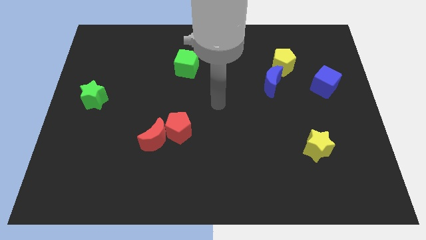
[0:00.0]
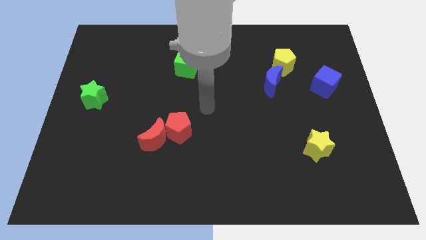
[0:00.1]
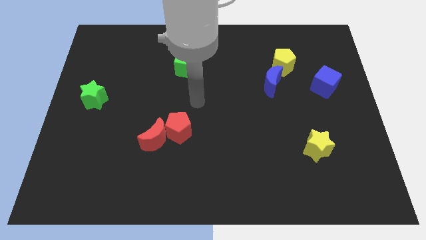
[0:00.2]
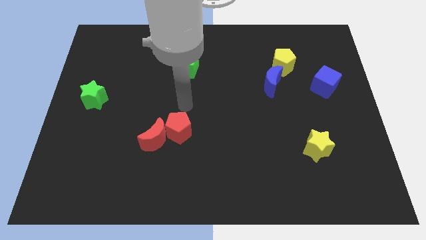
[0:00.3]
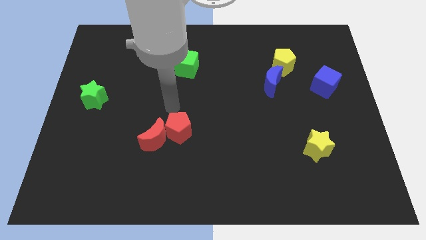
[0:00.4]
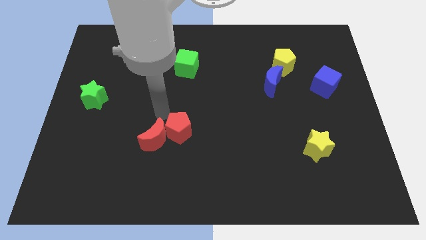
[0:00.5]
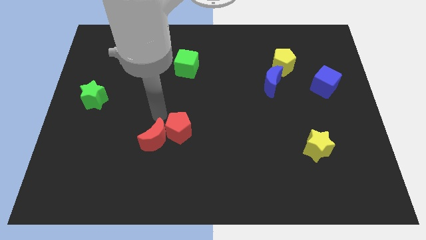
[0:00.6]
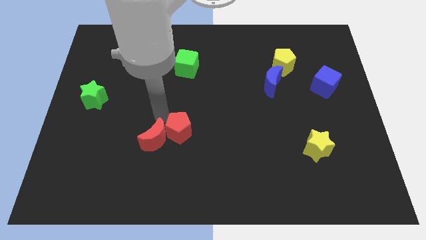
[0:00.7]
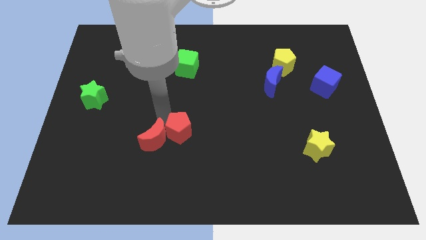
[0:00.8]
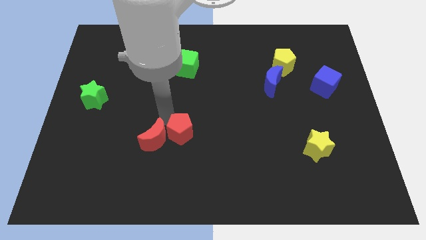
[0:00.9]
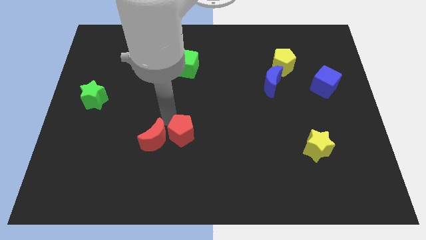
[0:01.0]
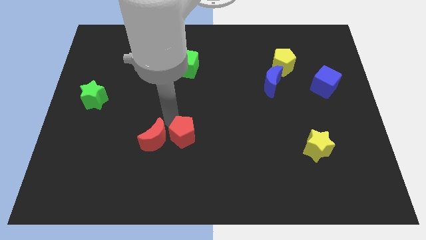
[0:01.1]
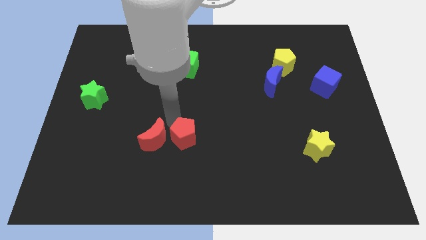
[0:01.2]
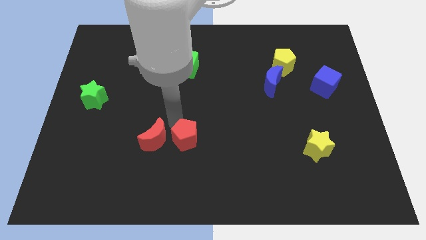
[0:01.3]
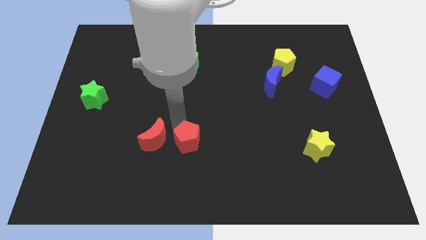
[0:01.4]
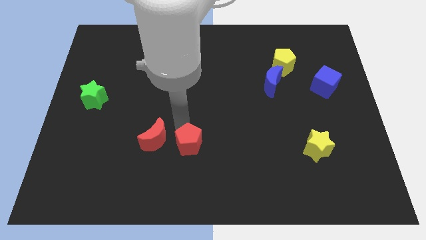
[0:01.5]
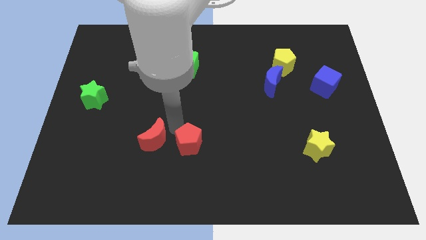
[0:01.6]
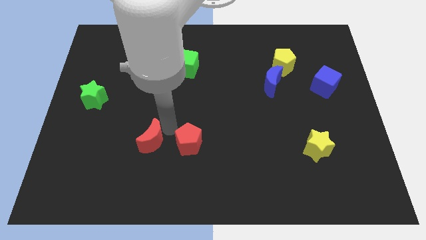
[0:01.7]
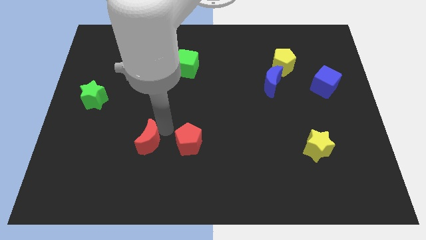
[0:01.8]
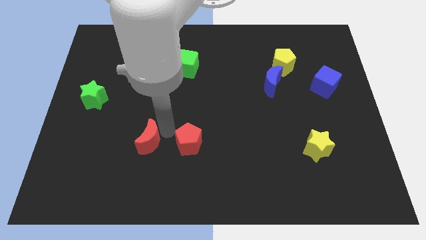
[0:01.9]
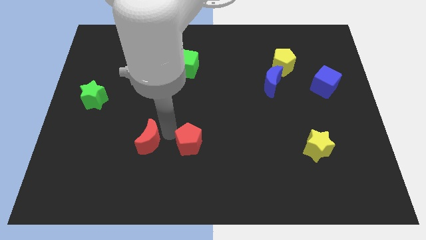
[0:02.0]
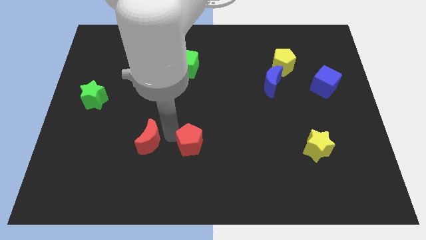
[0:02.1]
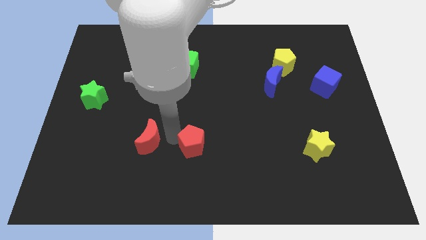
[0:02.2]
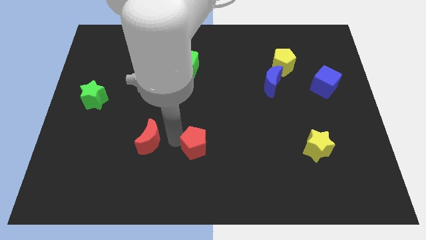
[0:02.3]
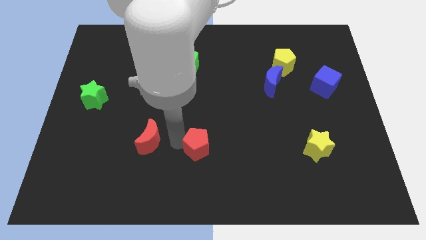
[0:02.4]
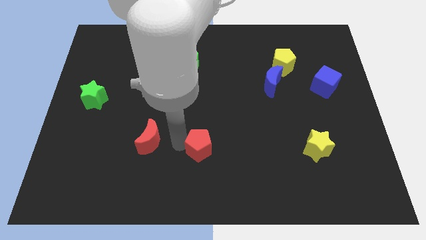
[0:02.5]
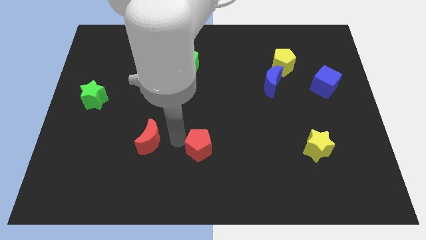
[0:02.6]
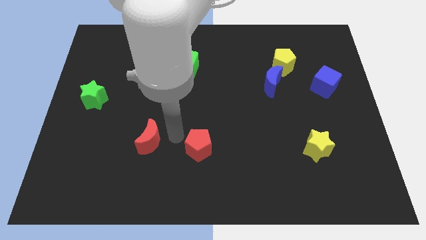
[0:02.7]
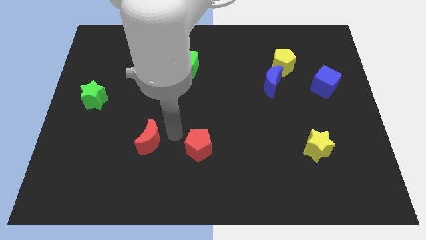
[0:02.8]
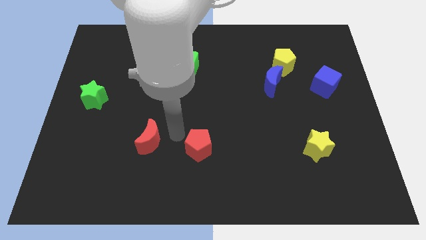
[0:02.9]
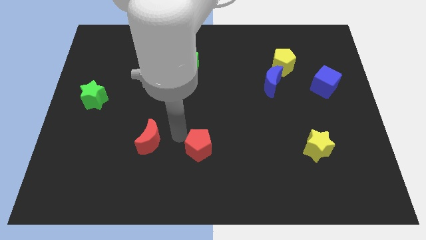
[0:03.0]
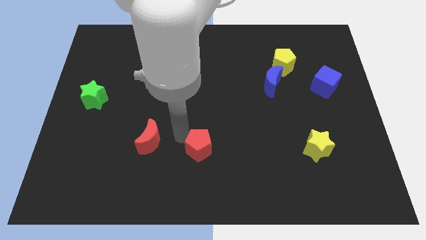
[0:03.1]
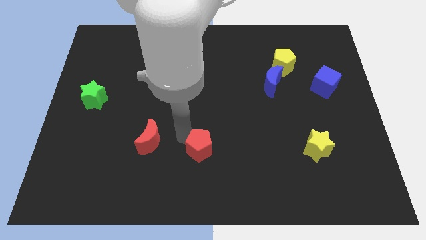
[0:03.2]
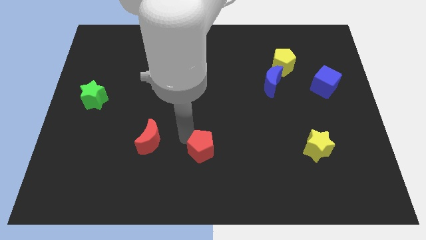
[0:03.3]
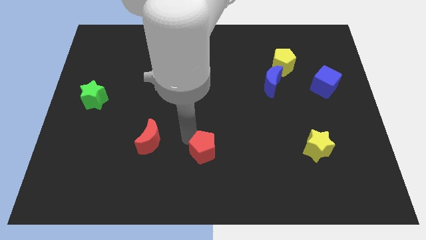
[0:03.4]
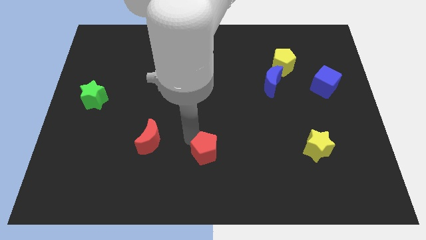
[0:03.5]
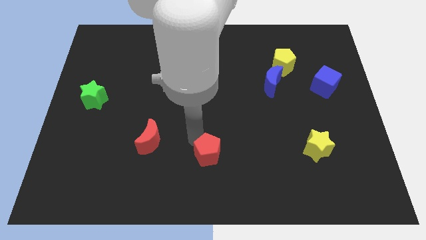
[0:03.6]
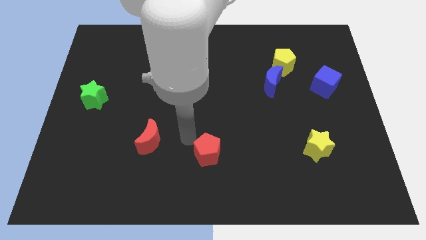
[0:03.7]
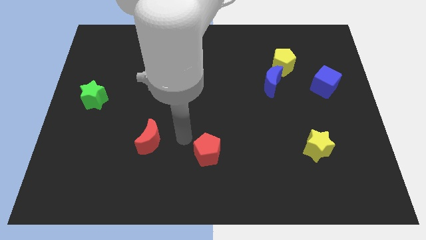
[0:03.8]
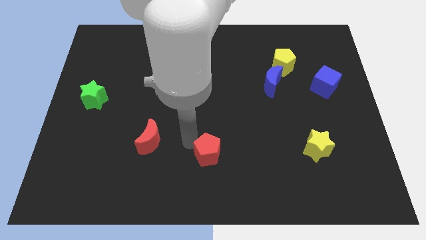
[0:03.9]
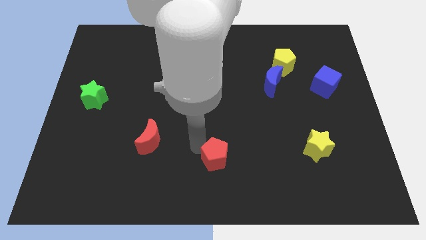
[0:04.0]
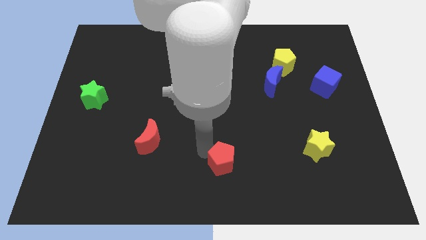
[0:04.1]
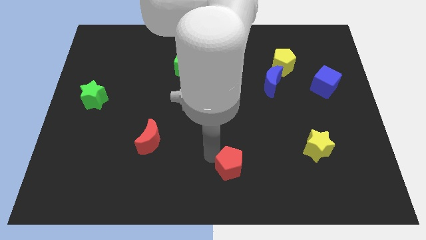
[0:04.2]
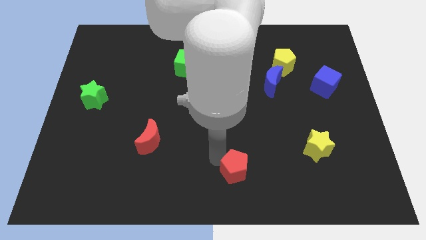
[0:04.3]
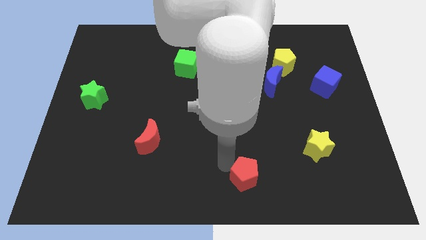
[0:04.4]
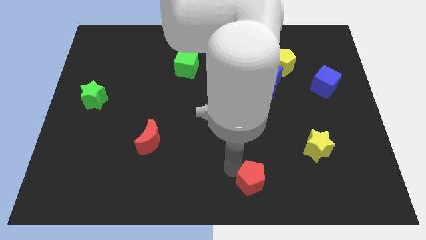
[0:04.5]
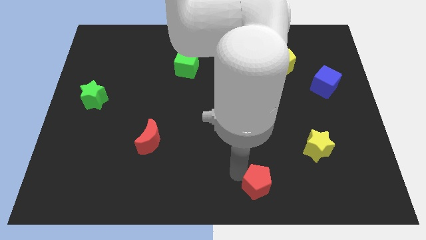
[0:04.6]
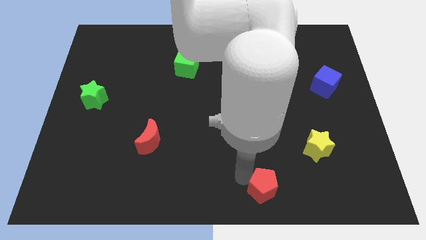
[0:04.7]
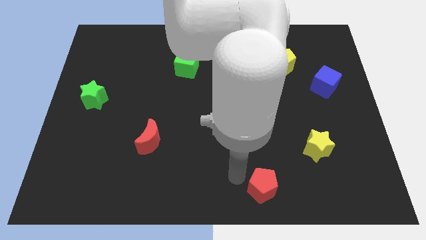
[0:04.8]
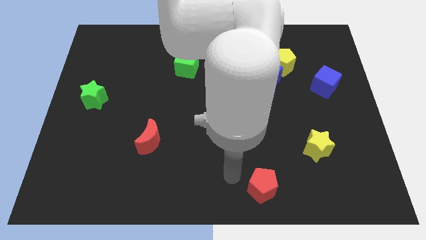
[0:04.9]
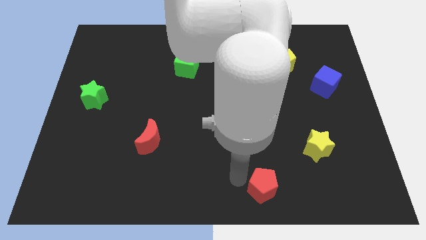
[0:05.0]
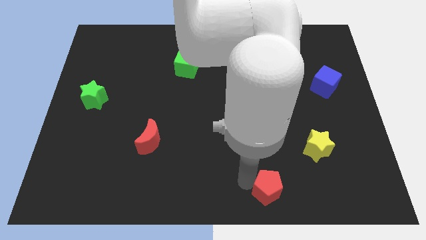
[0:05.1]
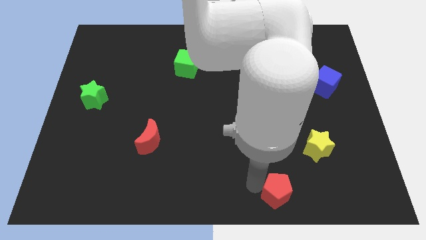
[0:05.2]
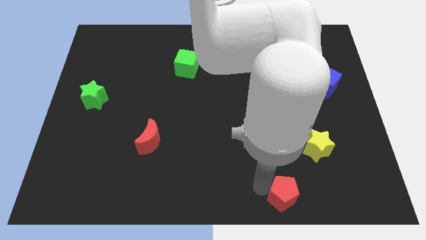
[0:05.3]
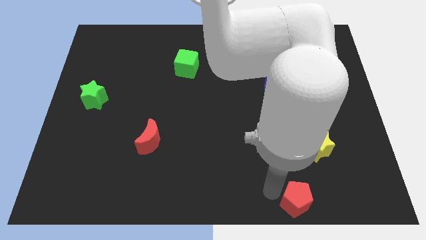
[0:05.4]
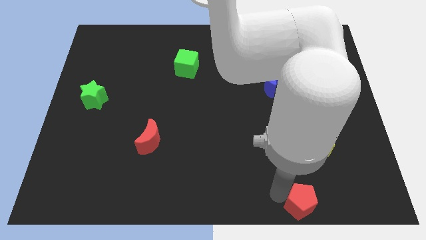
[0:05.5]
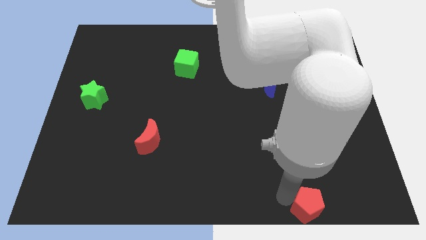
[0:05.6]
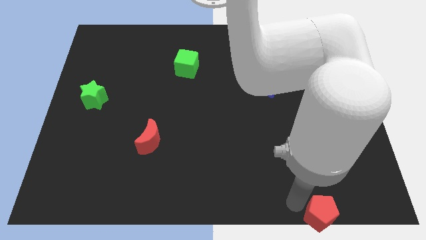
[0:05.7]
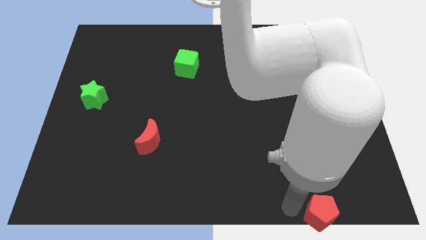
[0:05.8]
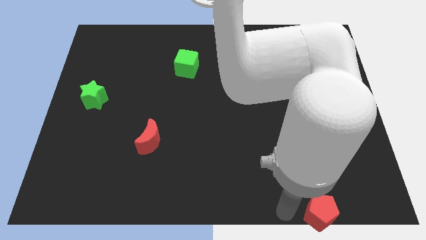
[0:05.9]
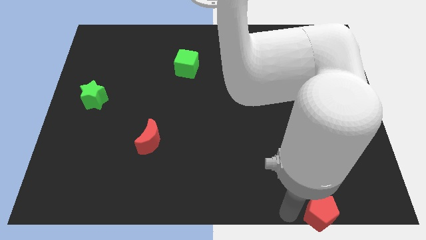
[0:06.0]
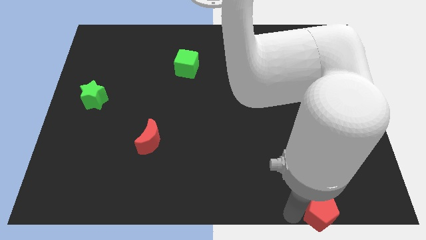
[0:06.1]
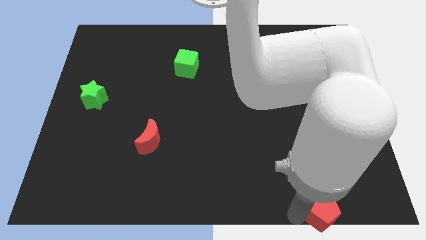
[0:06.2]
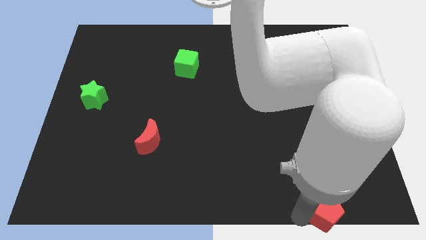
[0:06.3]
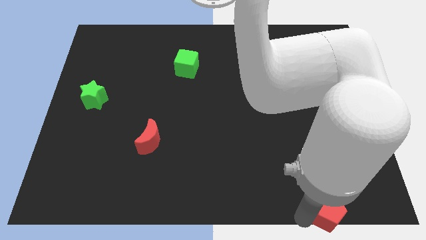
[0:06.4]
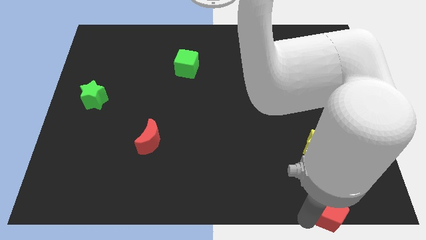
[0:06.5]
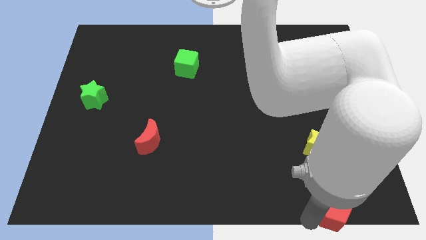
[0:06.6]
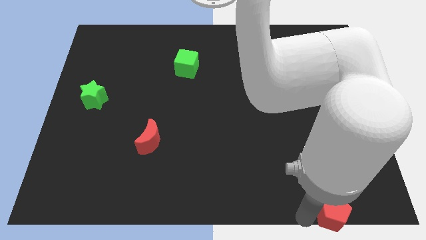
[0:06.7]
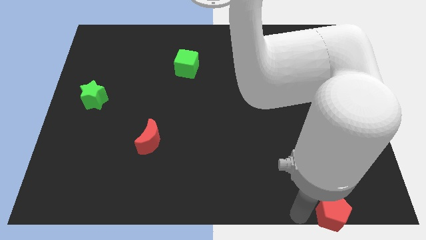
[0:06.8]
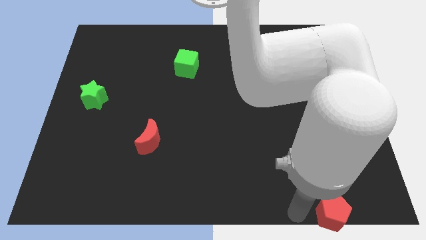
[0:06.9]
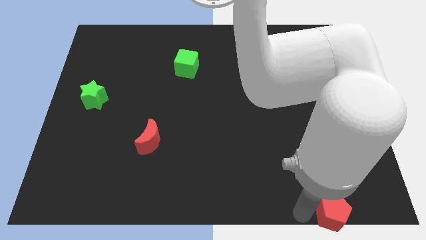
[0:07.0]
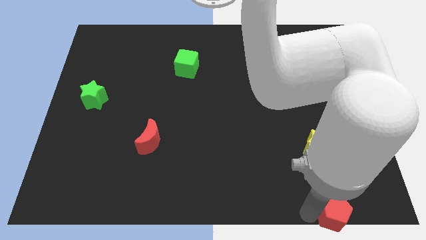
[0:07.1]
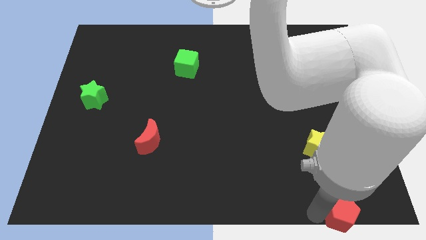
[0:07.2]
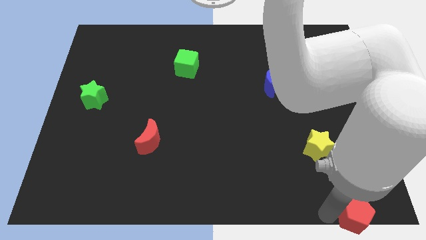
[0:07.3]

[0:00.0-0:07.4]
push the red pentagon to the lower right corner
